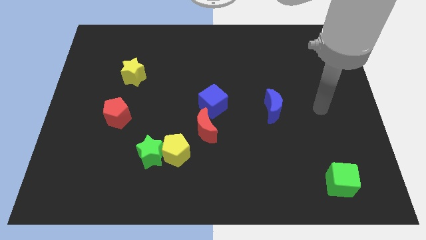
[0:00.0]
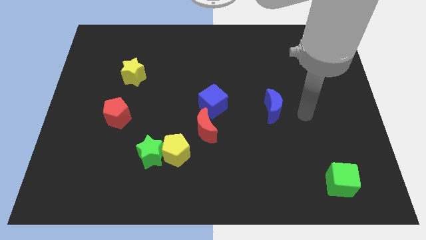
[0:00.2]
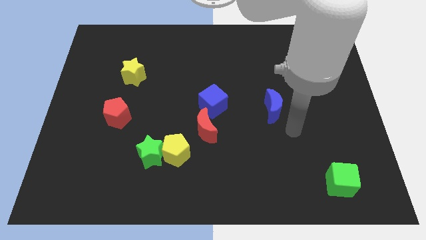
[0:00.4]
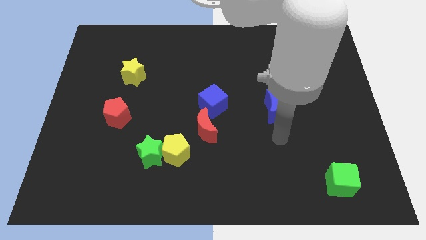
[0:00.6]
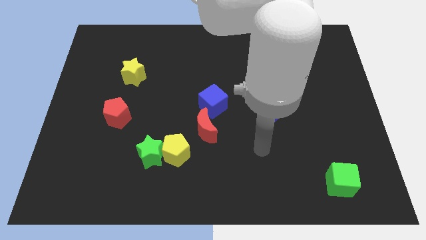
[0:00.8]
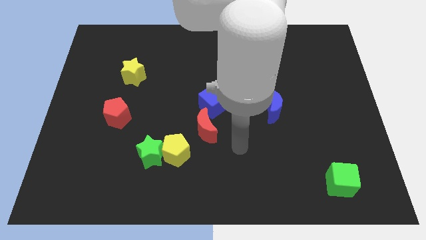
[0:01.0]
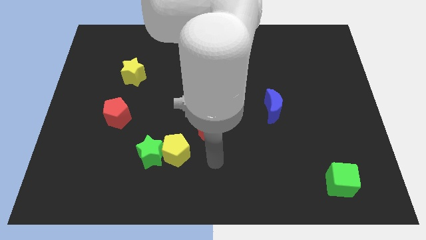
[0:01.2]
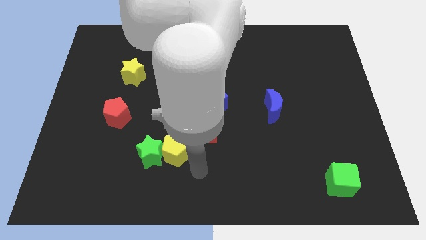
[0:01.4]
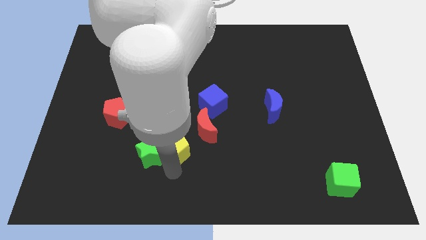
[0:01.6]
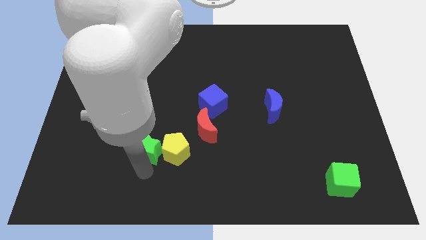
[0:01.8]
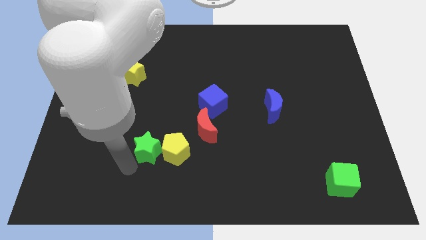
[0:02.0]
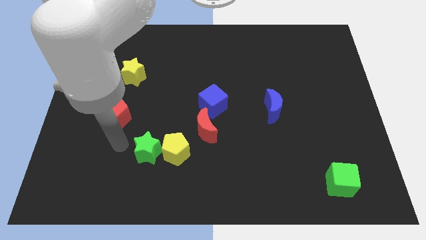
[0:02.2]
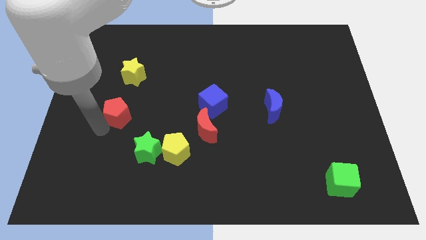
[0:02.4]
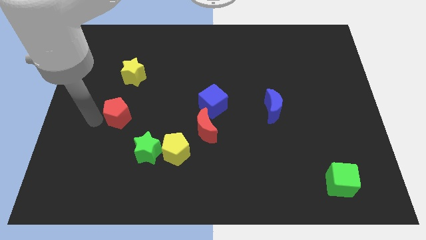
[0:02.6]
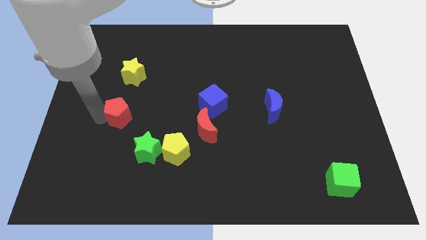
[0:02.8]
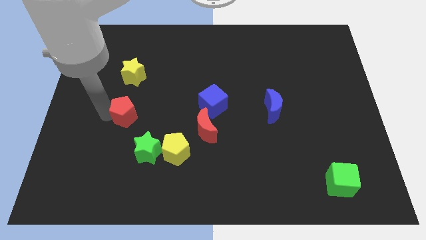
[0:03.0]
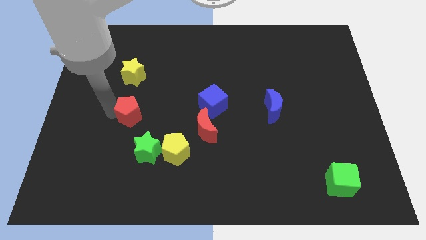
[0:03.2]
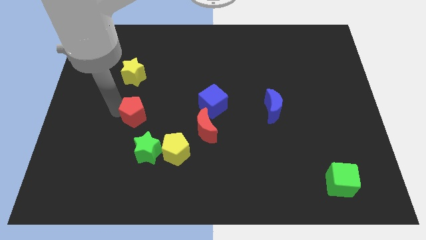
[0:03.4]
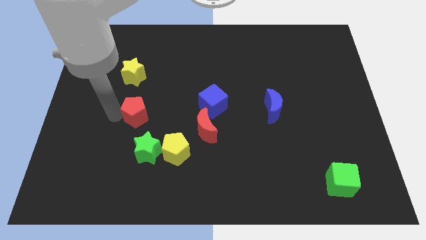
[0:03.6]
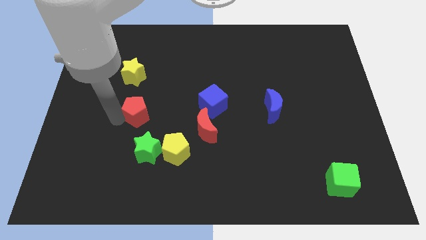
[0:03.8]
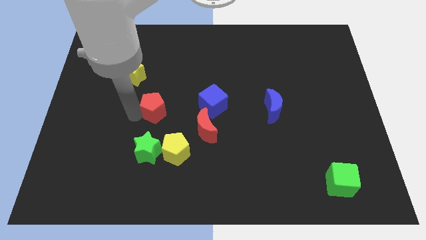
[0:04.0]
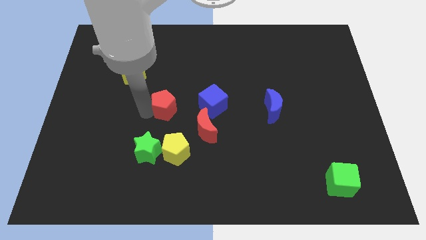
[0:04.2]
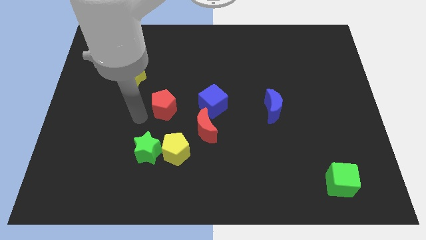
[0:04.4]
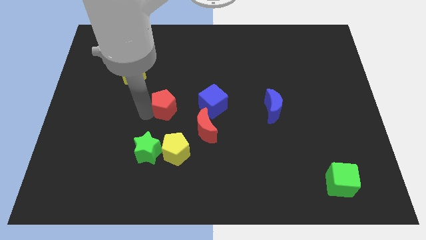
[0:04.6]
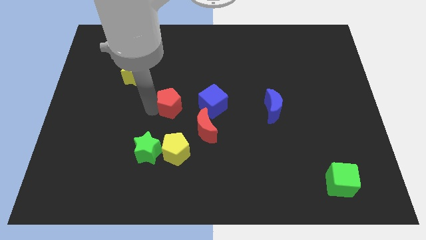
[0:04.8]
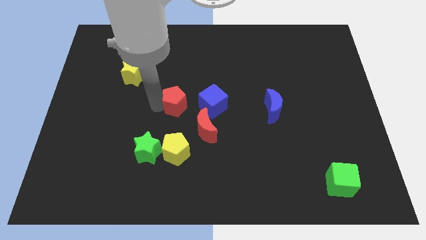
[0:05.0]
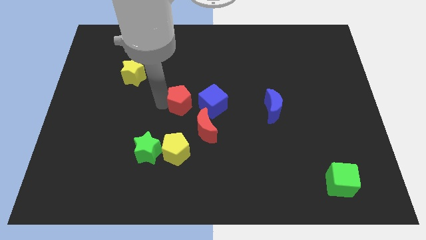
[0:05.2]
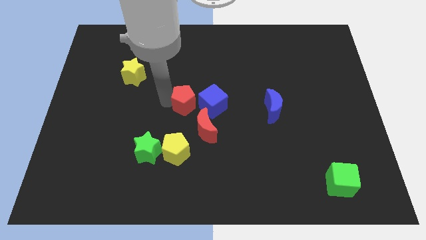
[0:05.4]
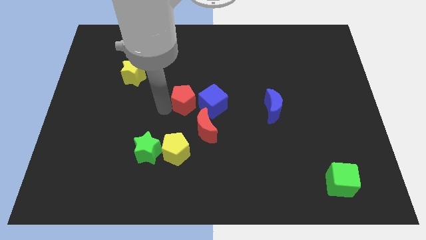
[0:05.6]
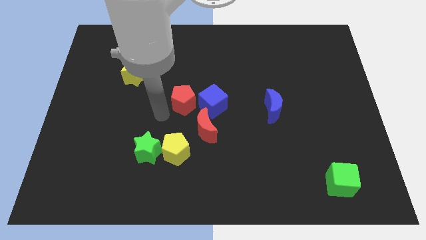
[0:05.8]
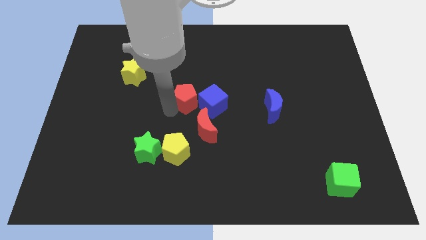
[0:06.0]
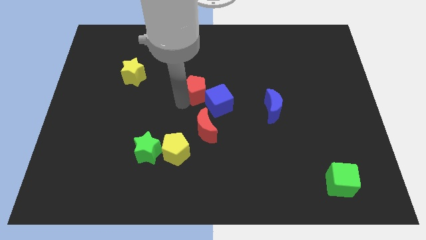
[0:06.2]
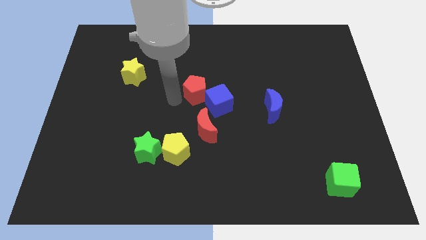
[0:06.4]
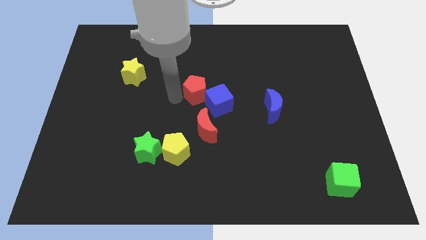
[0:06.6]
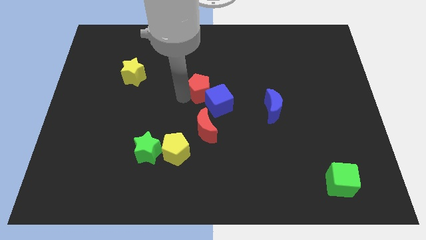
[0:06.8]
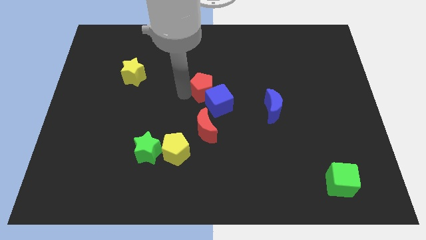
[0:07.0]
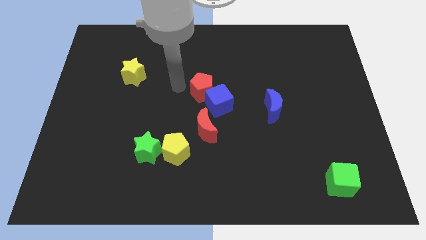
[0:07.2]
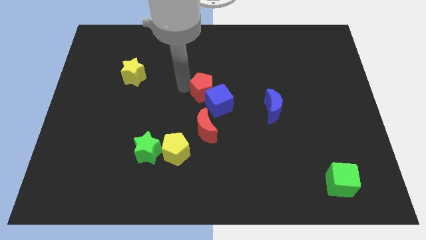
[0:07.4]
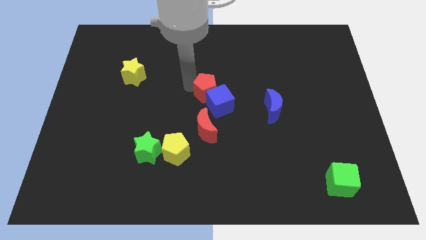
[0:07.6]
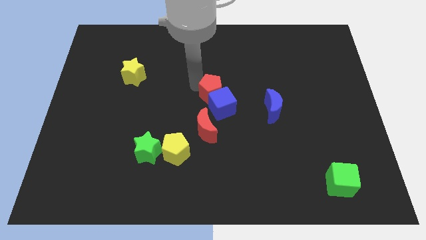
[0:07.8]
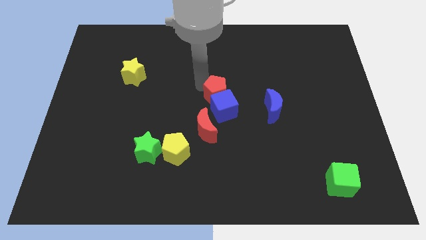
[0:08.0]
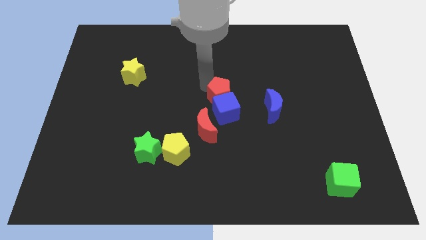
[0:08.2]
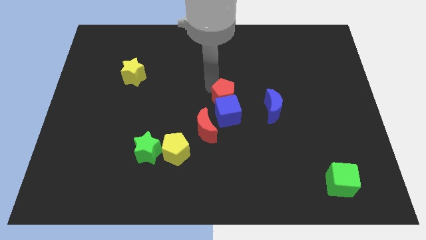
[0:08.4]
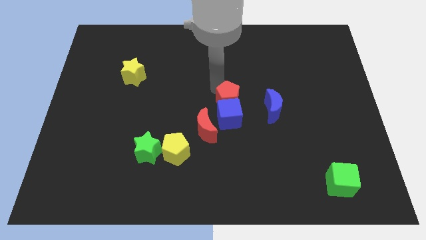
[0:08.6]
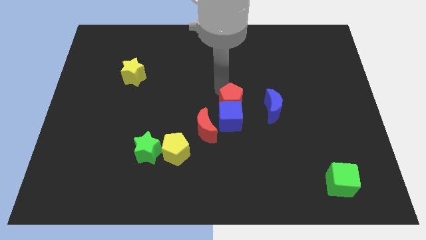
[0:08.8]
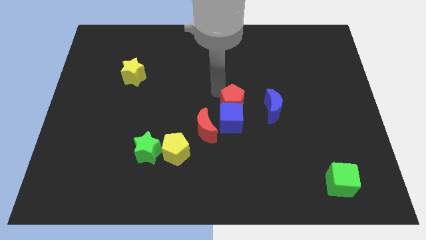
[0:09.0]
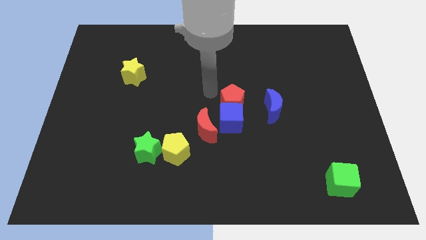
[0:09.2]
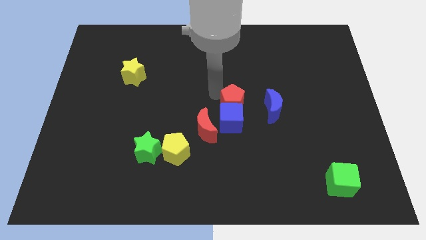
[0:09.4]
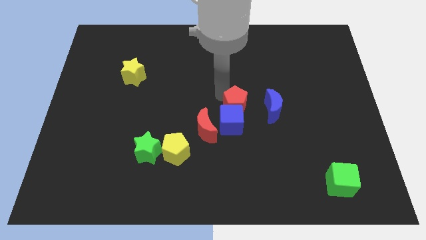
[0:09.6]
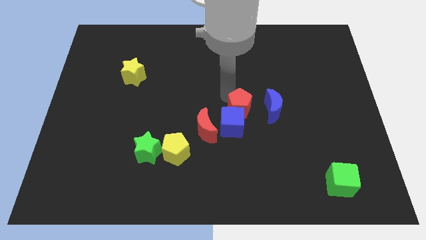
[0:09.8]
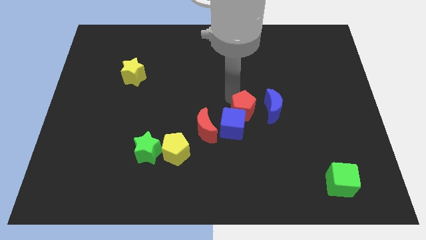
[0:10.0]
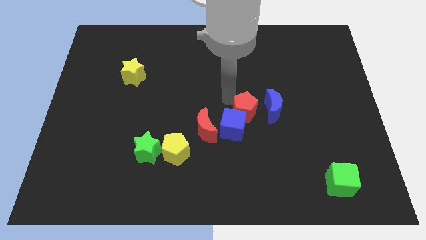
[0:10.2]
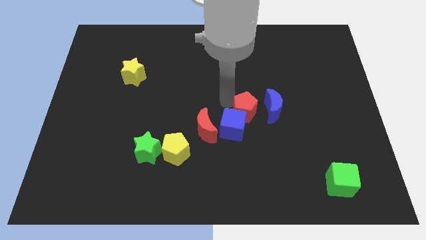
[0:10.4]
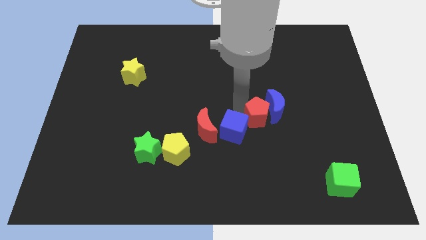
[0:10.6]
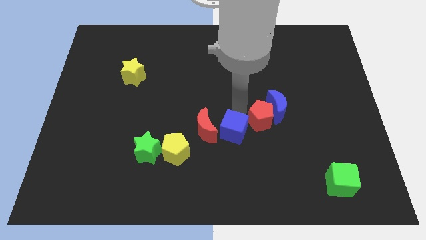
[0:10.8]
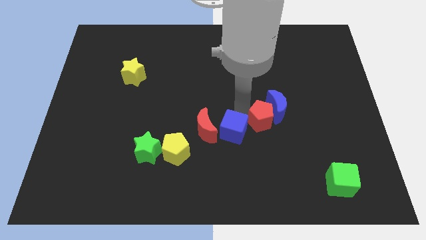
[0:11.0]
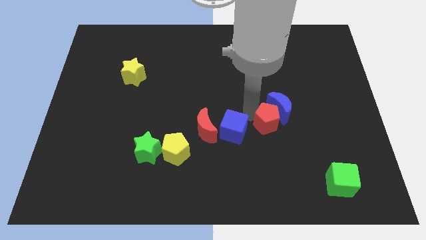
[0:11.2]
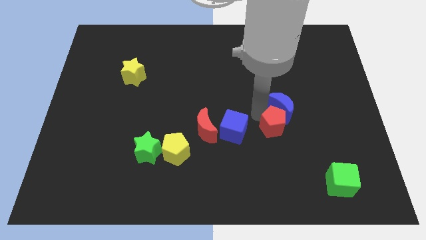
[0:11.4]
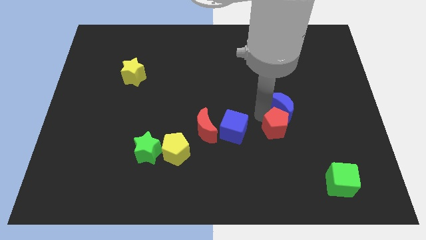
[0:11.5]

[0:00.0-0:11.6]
move the red pentagon diagonally down and to the right of the blue moon

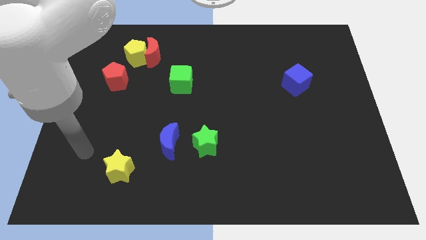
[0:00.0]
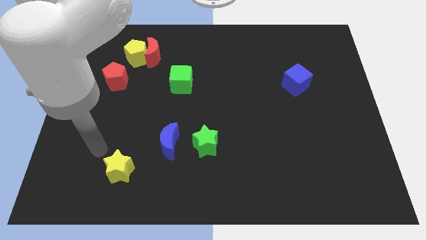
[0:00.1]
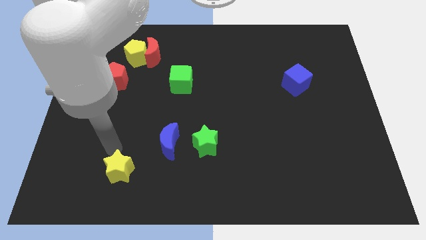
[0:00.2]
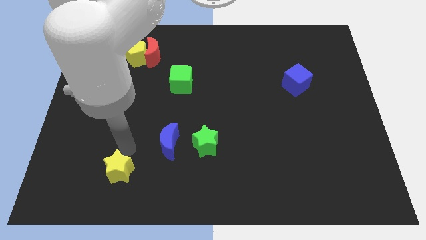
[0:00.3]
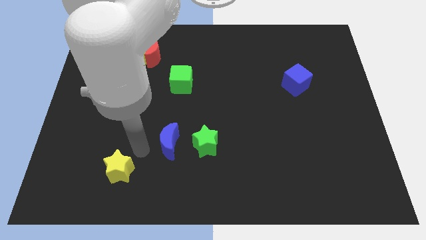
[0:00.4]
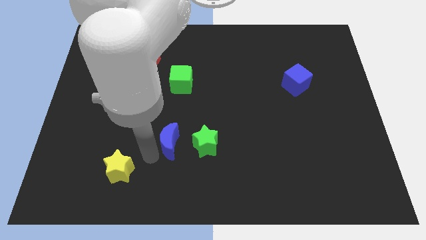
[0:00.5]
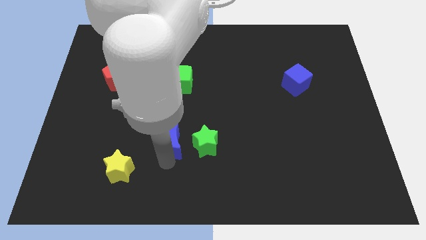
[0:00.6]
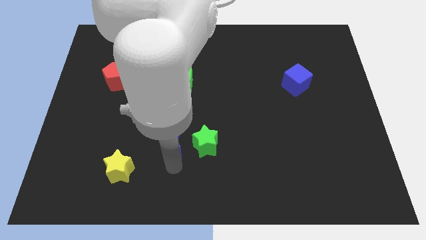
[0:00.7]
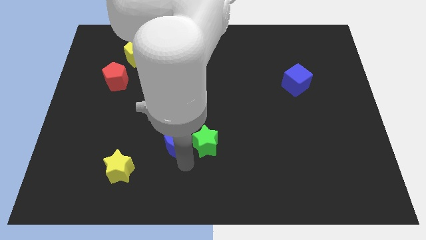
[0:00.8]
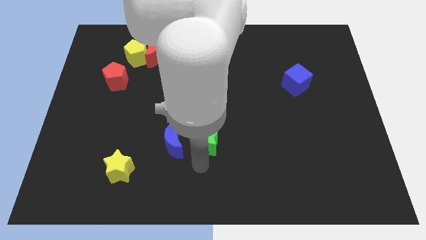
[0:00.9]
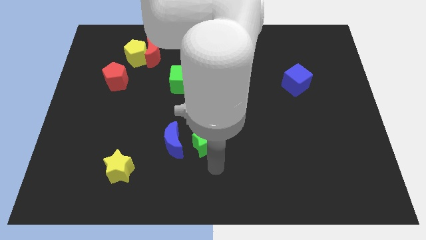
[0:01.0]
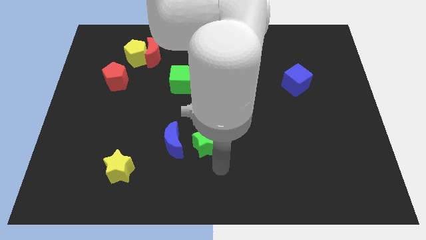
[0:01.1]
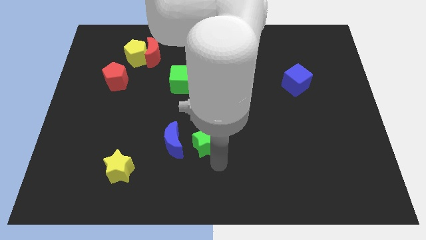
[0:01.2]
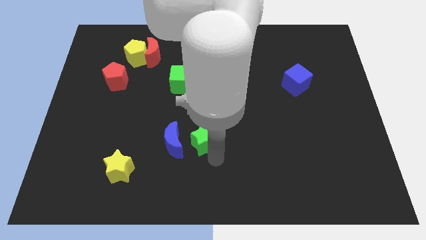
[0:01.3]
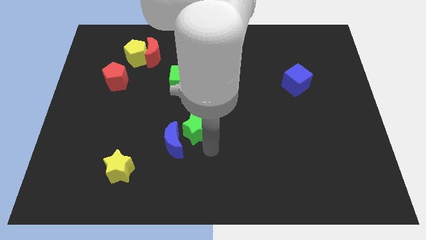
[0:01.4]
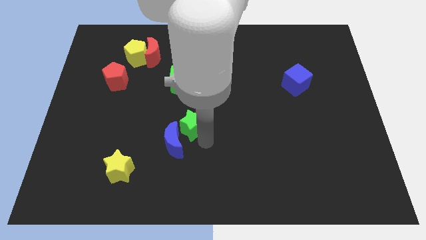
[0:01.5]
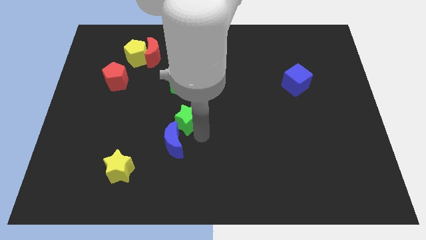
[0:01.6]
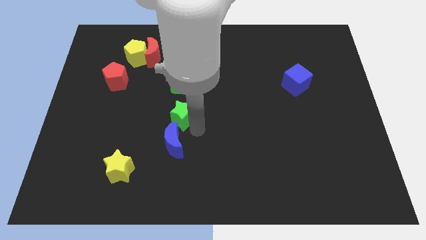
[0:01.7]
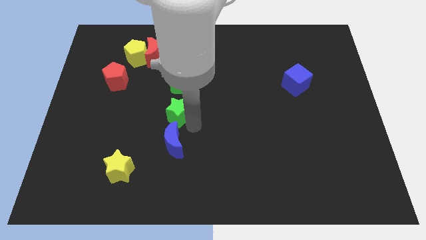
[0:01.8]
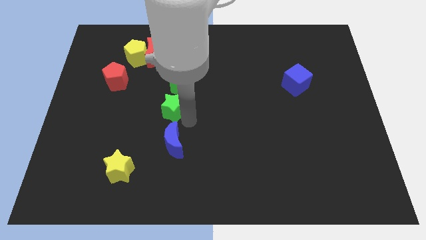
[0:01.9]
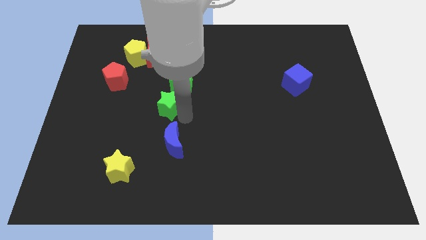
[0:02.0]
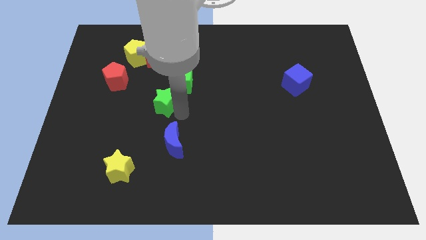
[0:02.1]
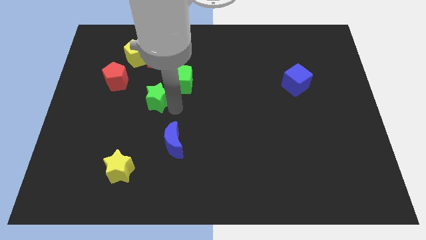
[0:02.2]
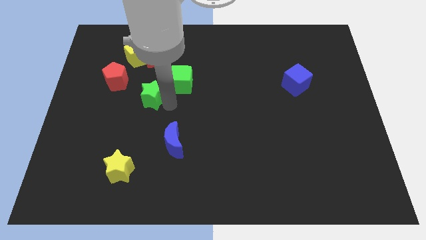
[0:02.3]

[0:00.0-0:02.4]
push the green star diagonally down and to the right of the red pentagon
